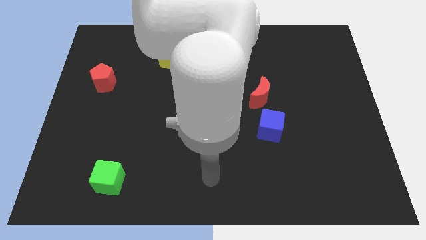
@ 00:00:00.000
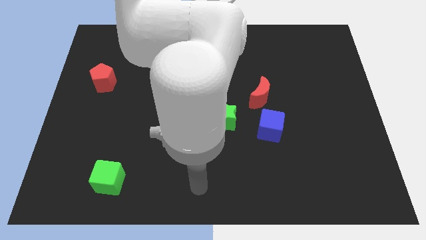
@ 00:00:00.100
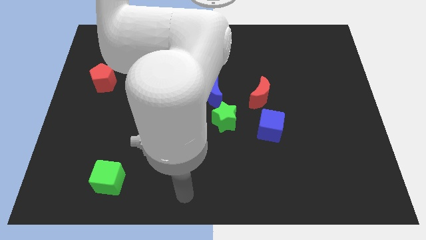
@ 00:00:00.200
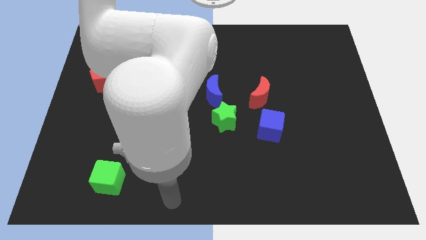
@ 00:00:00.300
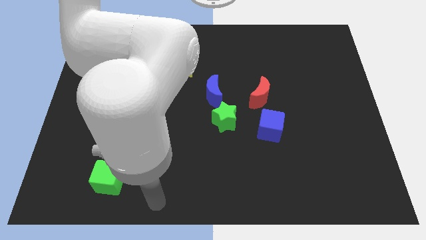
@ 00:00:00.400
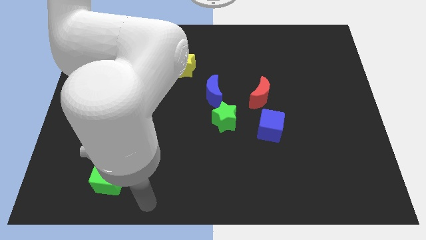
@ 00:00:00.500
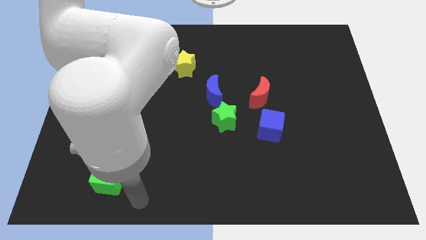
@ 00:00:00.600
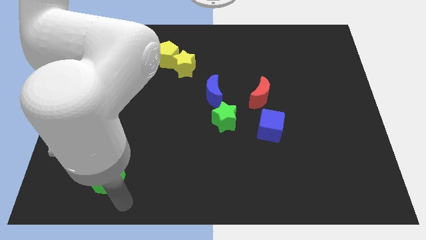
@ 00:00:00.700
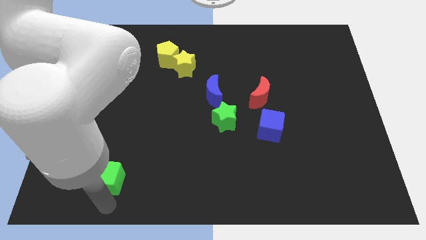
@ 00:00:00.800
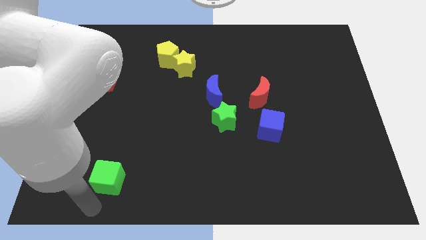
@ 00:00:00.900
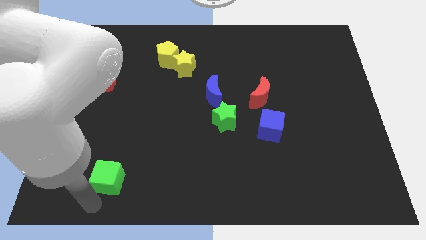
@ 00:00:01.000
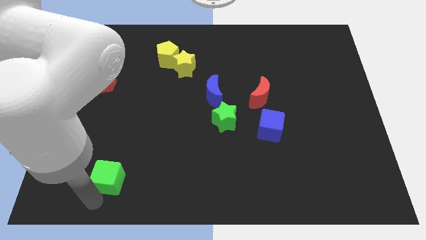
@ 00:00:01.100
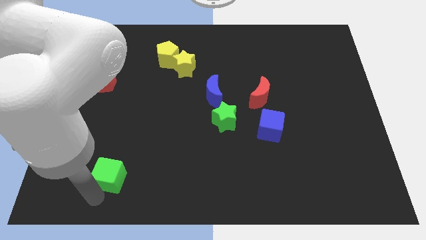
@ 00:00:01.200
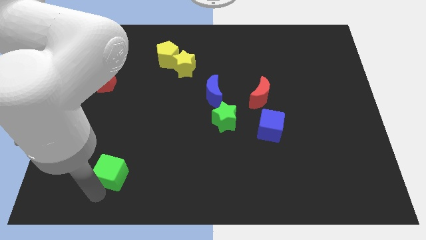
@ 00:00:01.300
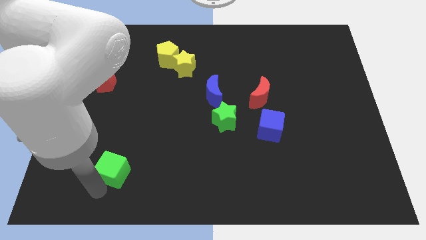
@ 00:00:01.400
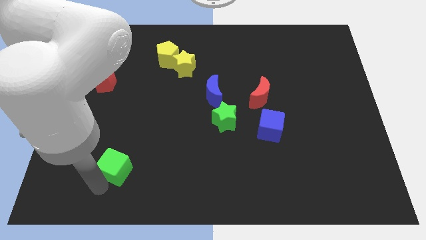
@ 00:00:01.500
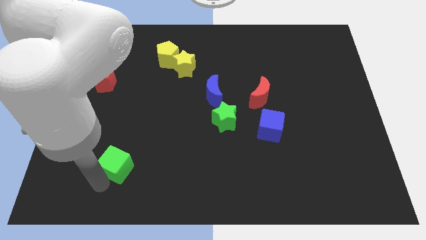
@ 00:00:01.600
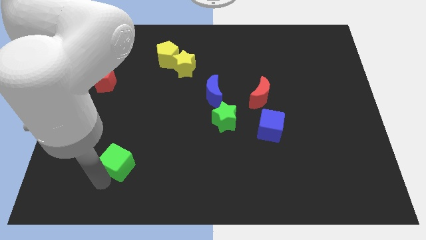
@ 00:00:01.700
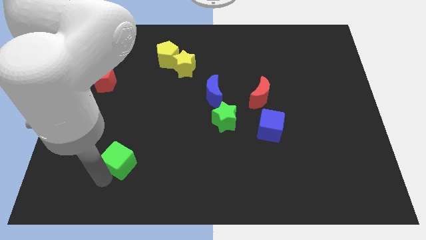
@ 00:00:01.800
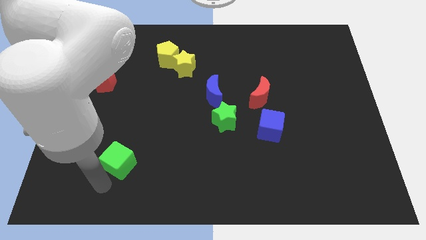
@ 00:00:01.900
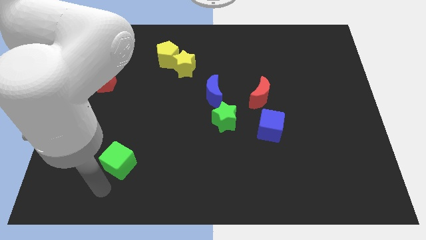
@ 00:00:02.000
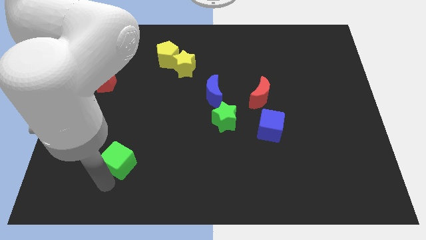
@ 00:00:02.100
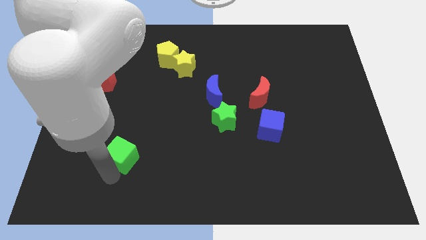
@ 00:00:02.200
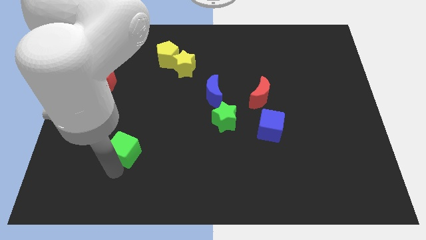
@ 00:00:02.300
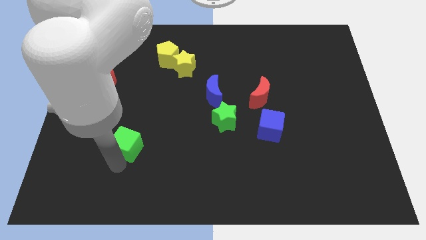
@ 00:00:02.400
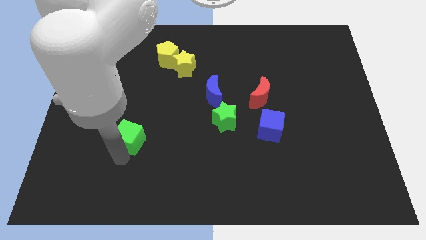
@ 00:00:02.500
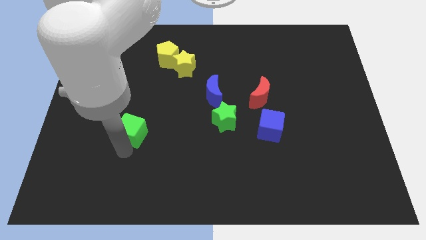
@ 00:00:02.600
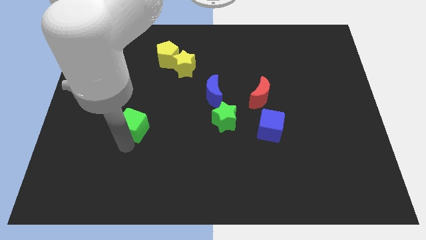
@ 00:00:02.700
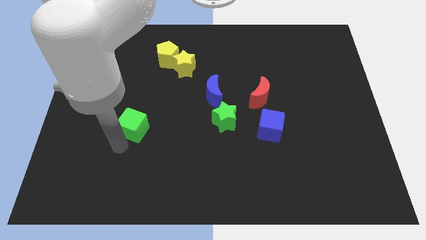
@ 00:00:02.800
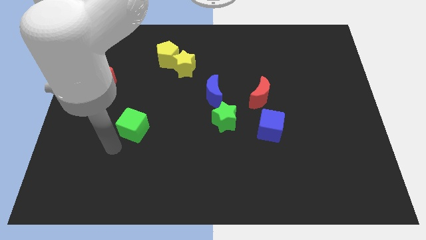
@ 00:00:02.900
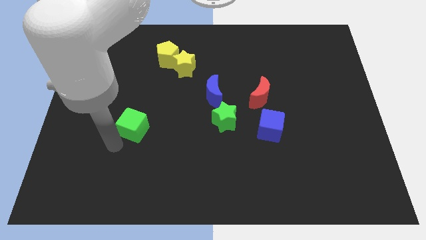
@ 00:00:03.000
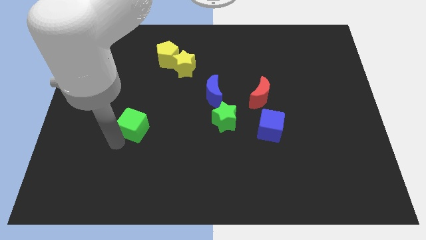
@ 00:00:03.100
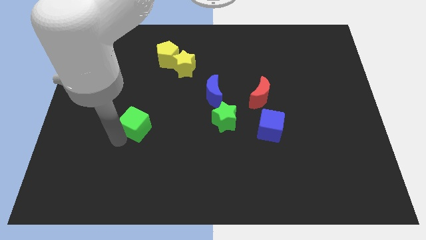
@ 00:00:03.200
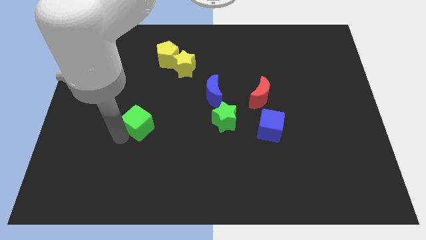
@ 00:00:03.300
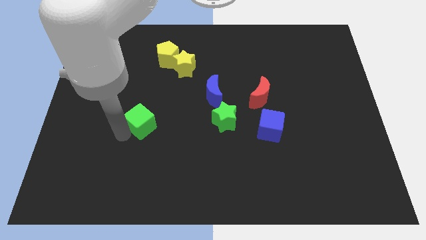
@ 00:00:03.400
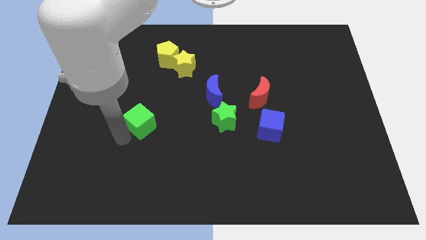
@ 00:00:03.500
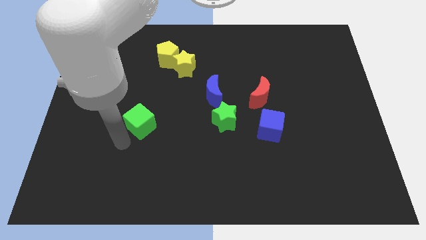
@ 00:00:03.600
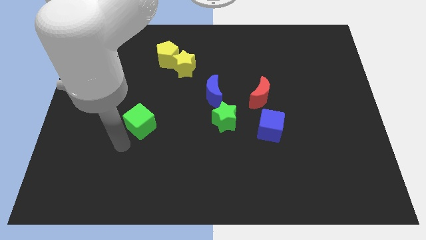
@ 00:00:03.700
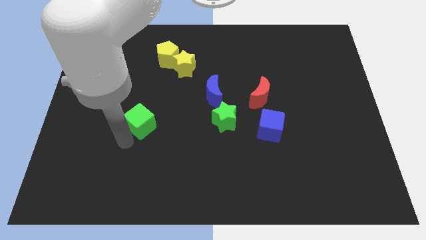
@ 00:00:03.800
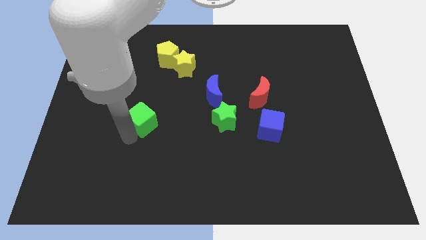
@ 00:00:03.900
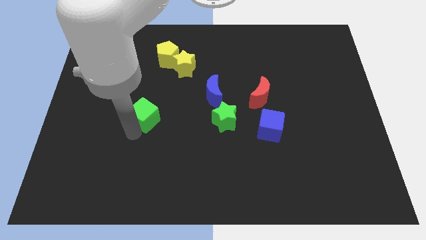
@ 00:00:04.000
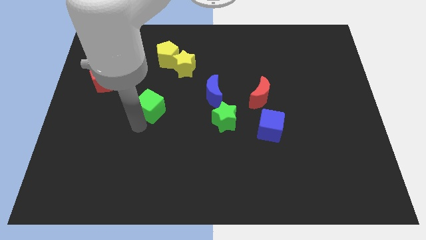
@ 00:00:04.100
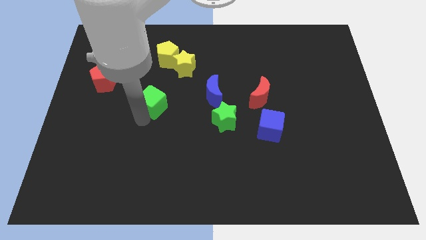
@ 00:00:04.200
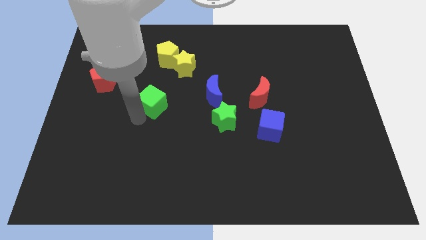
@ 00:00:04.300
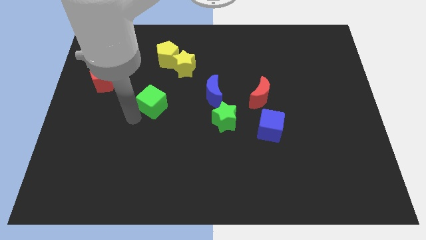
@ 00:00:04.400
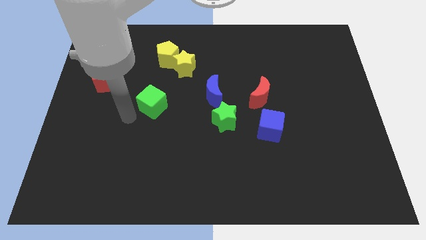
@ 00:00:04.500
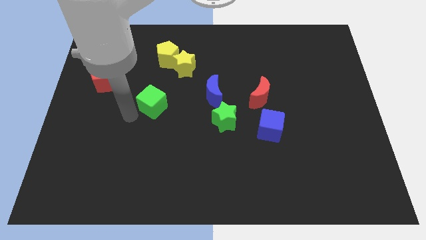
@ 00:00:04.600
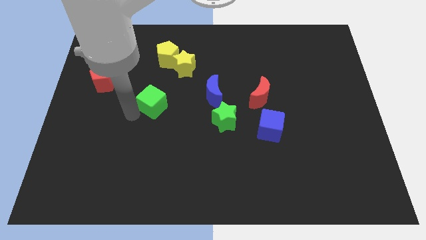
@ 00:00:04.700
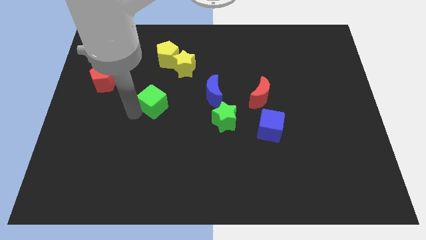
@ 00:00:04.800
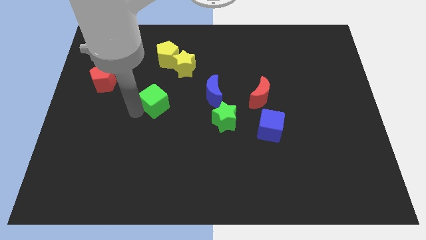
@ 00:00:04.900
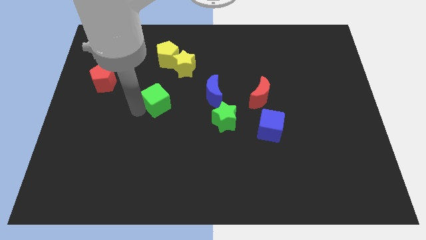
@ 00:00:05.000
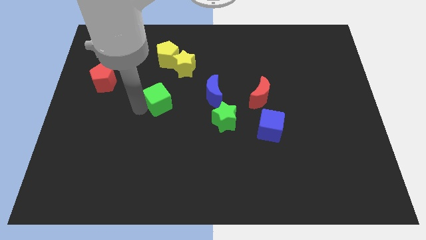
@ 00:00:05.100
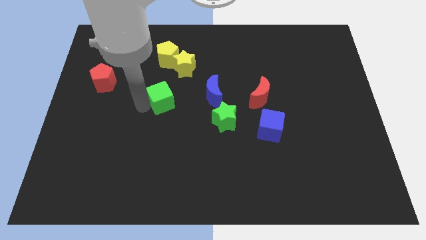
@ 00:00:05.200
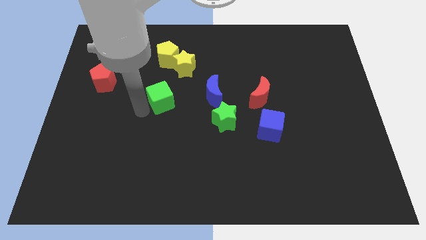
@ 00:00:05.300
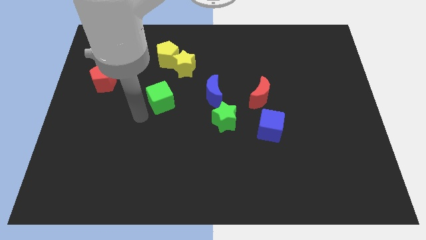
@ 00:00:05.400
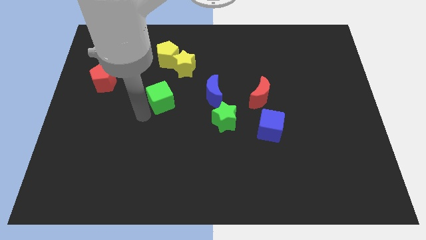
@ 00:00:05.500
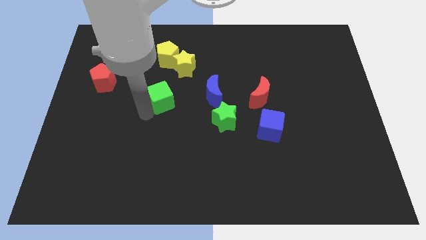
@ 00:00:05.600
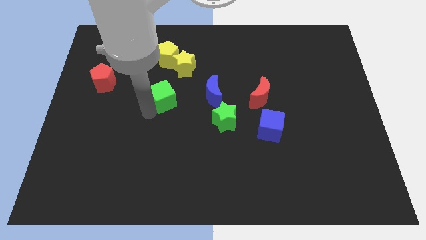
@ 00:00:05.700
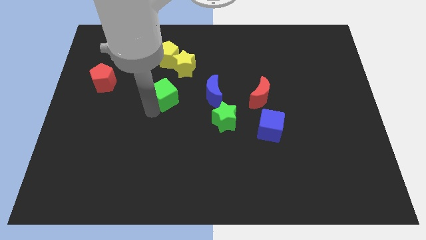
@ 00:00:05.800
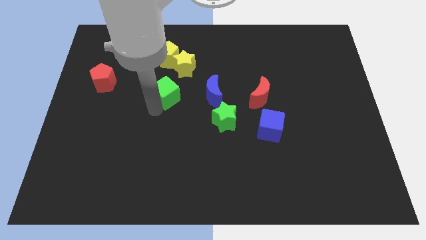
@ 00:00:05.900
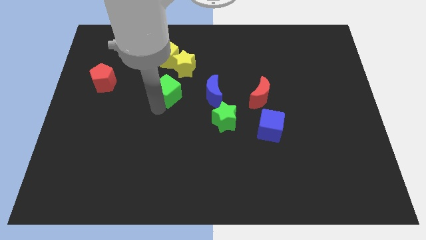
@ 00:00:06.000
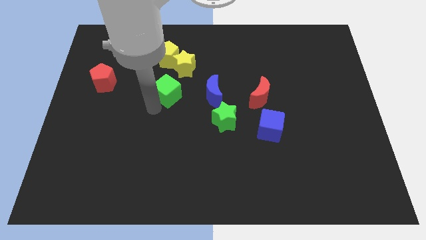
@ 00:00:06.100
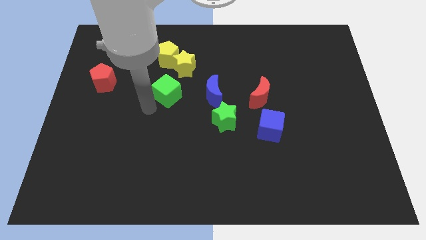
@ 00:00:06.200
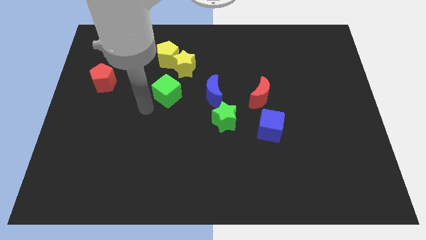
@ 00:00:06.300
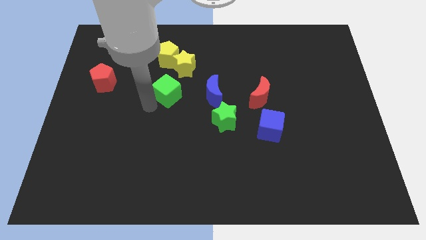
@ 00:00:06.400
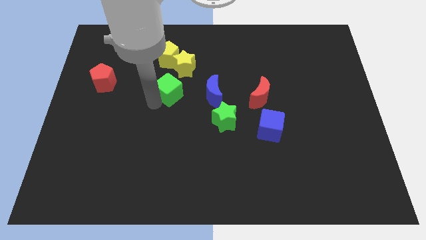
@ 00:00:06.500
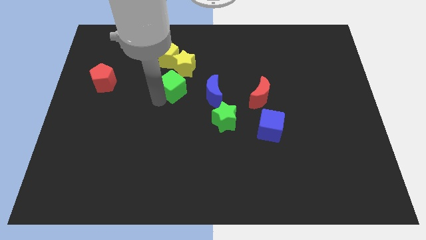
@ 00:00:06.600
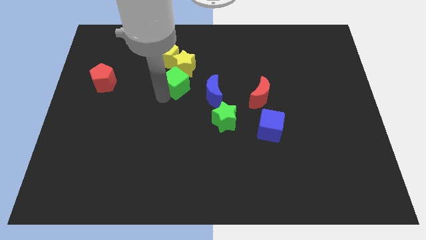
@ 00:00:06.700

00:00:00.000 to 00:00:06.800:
push the green cube to the bottom right side of the yellow pentagon

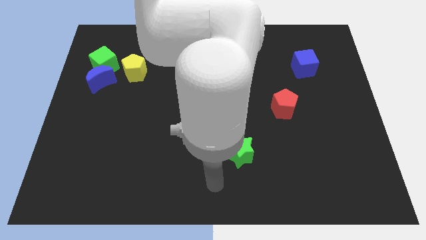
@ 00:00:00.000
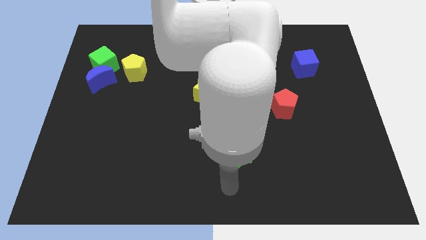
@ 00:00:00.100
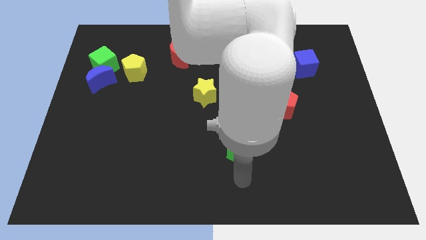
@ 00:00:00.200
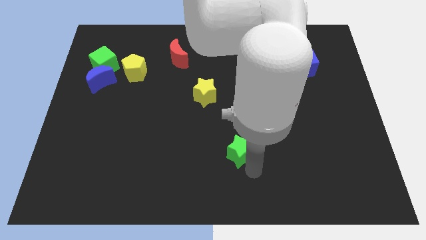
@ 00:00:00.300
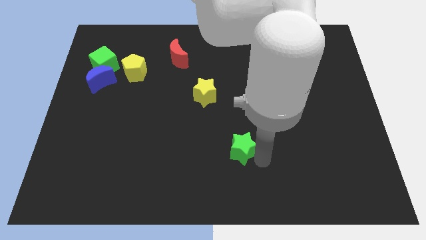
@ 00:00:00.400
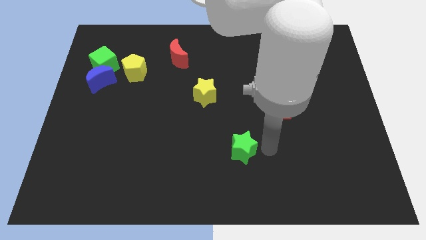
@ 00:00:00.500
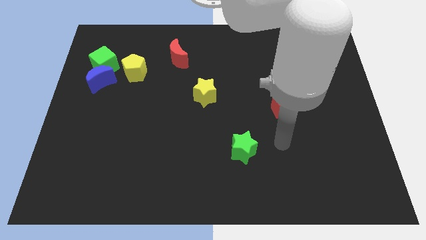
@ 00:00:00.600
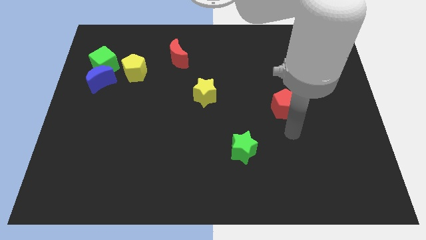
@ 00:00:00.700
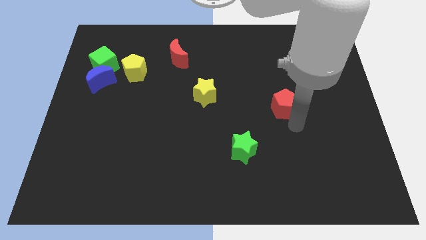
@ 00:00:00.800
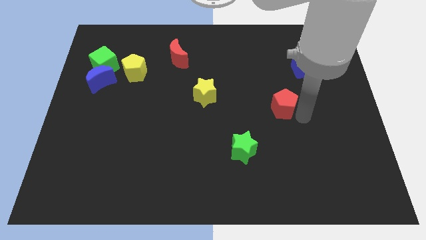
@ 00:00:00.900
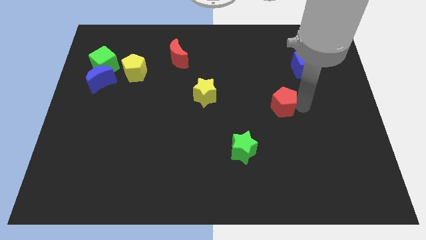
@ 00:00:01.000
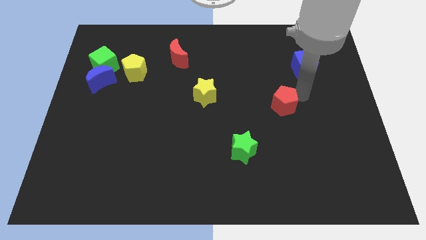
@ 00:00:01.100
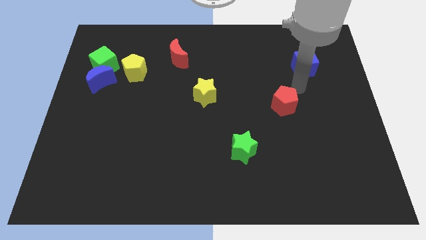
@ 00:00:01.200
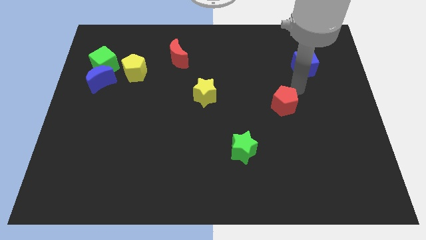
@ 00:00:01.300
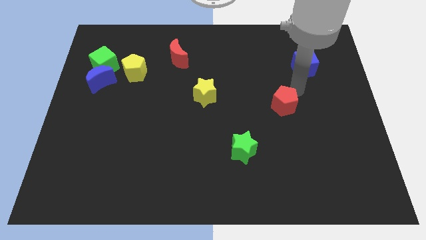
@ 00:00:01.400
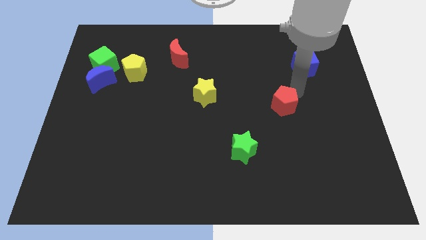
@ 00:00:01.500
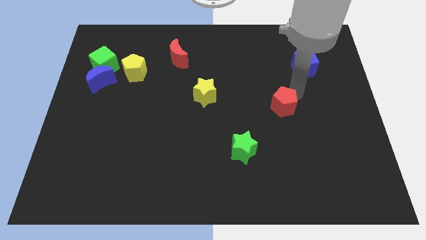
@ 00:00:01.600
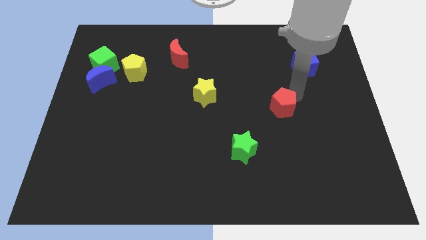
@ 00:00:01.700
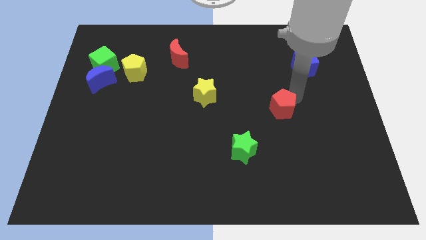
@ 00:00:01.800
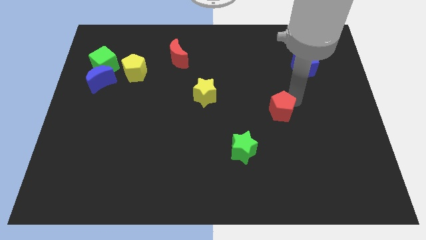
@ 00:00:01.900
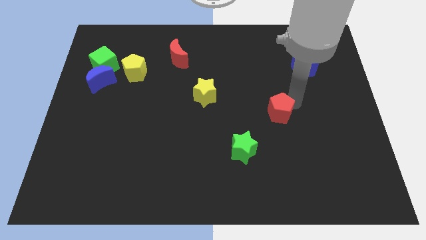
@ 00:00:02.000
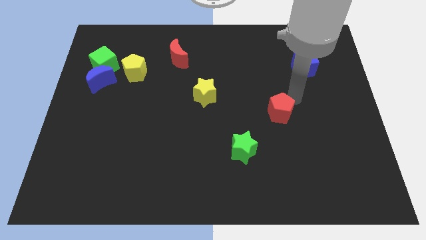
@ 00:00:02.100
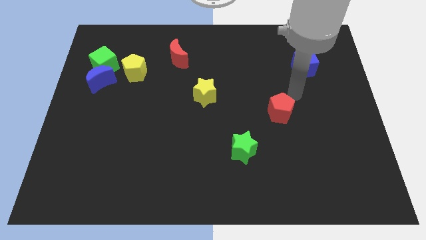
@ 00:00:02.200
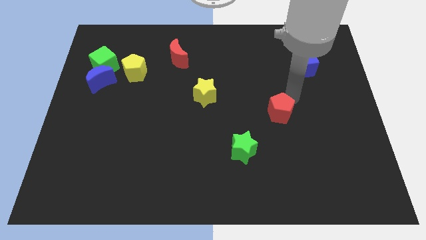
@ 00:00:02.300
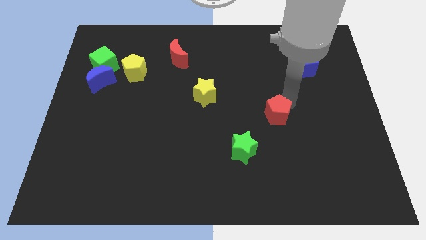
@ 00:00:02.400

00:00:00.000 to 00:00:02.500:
move the red pentagon to the top right side of the green star
